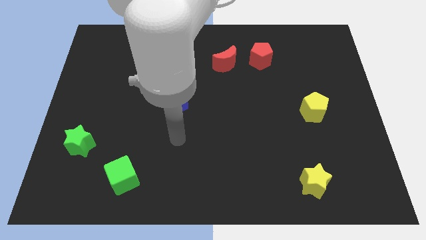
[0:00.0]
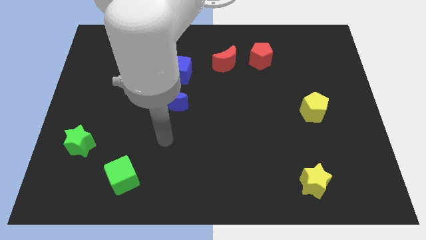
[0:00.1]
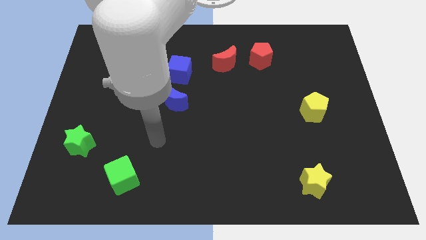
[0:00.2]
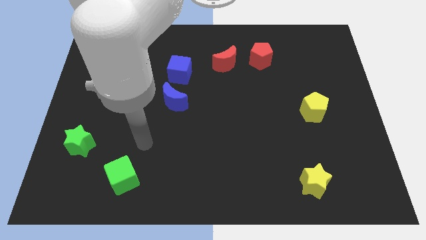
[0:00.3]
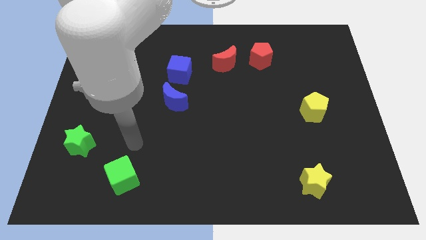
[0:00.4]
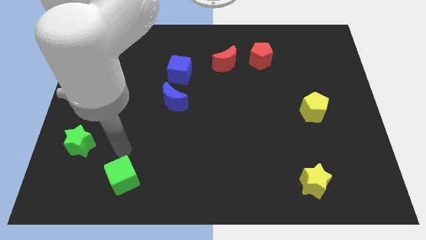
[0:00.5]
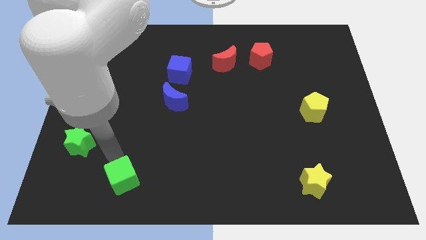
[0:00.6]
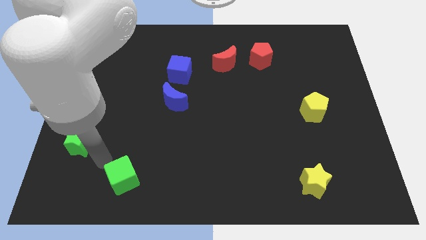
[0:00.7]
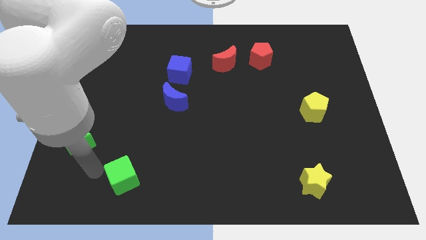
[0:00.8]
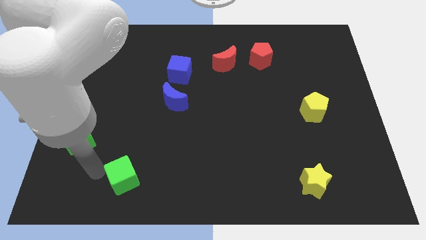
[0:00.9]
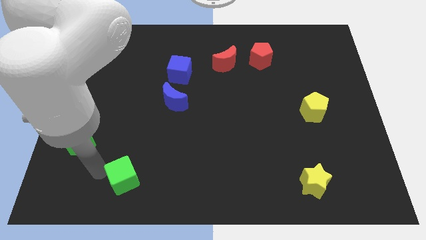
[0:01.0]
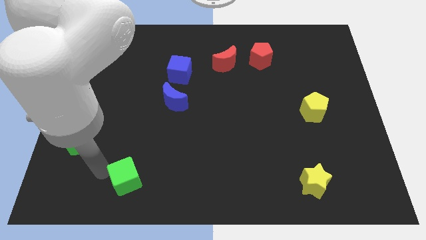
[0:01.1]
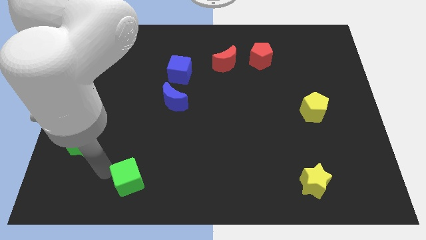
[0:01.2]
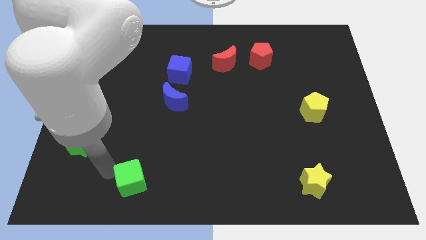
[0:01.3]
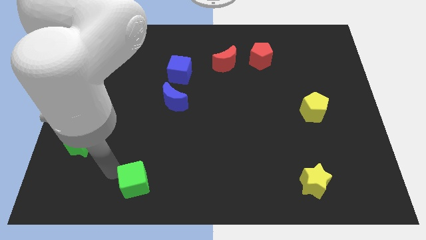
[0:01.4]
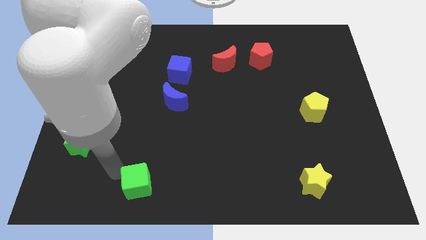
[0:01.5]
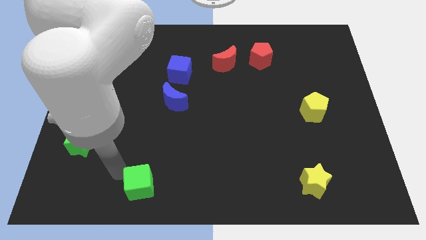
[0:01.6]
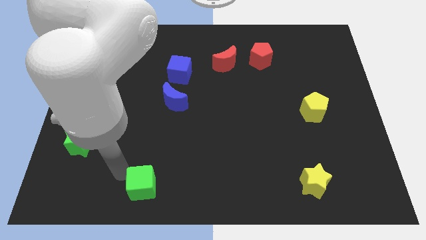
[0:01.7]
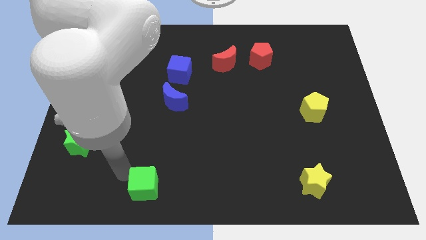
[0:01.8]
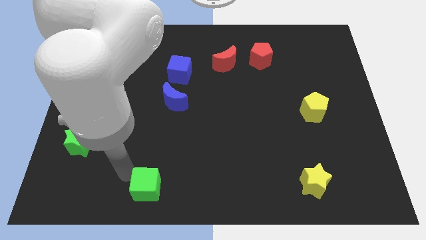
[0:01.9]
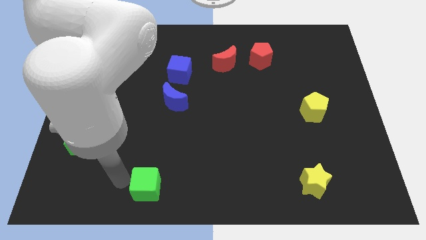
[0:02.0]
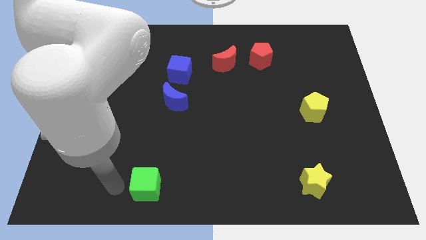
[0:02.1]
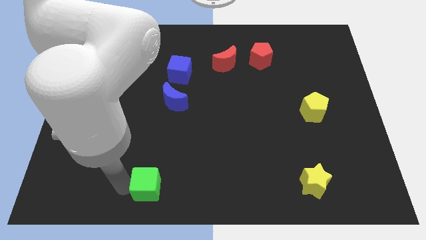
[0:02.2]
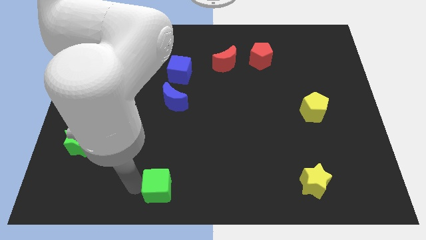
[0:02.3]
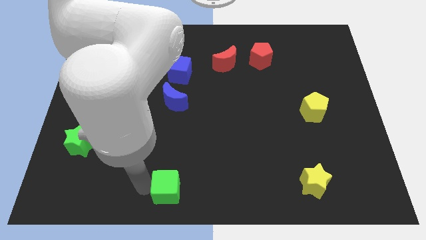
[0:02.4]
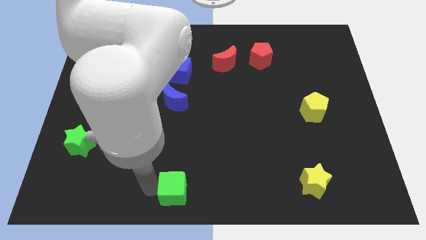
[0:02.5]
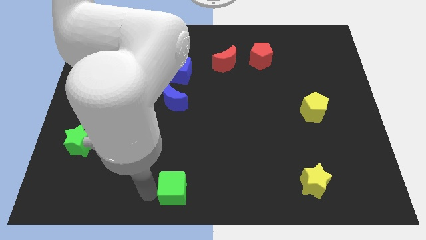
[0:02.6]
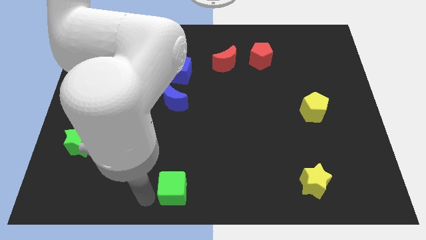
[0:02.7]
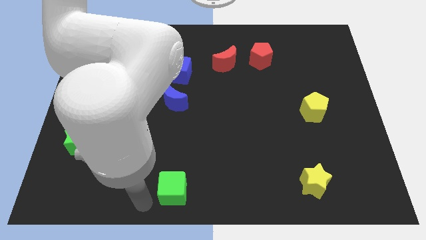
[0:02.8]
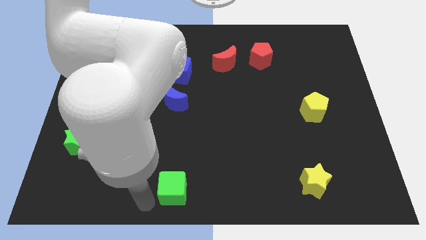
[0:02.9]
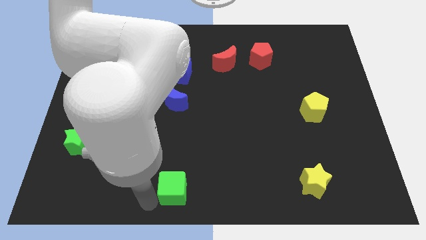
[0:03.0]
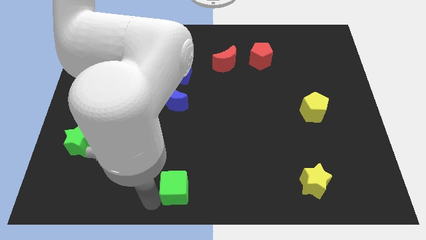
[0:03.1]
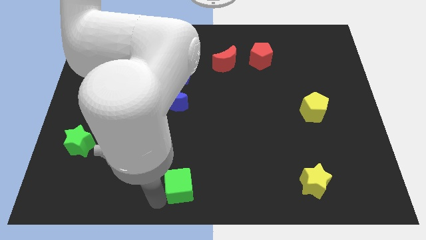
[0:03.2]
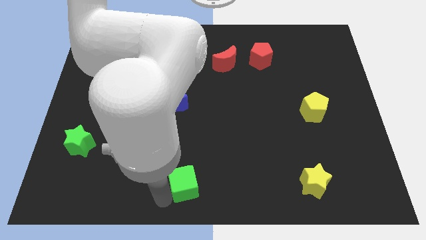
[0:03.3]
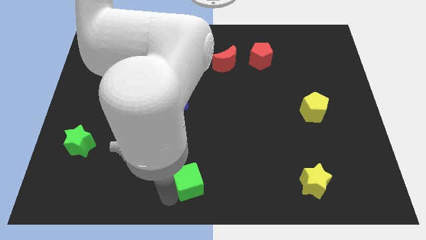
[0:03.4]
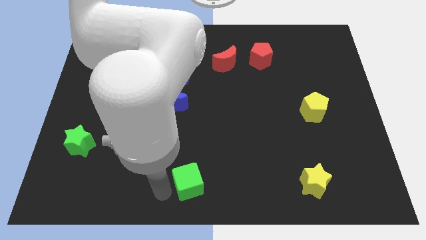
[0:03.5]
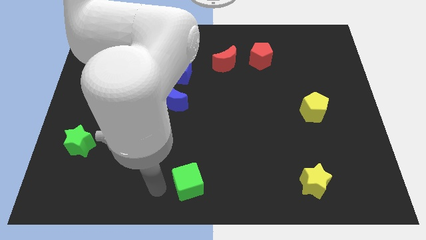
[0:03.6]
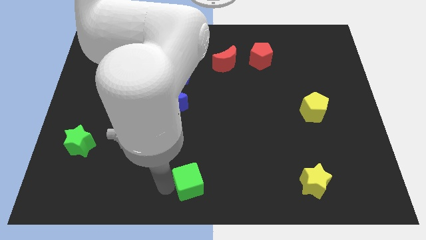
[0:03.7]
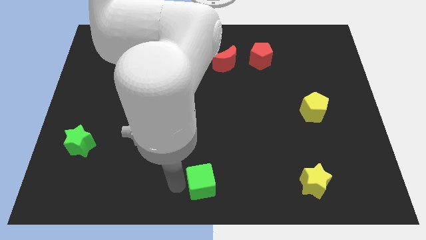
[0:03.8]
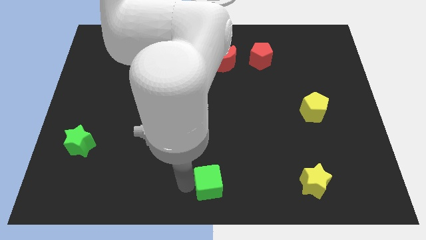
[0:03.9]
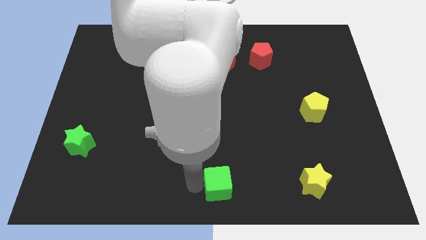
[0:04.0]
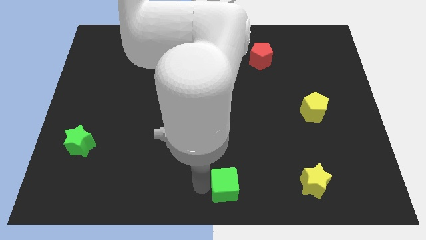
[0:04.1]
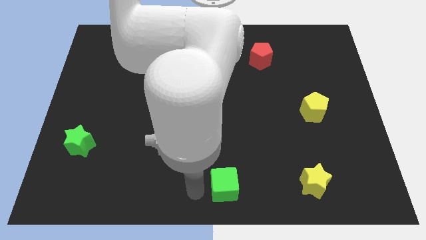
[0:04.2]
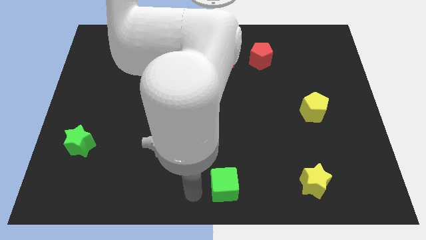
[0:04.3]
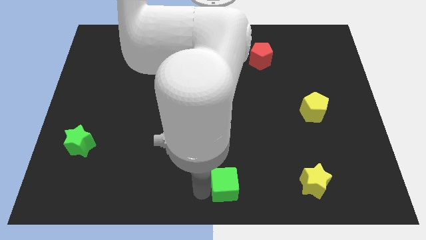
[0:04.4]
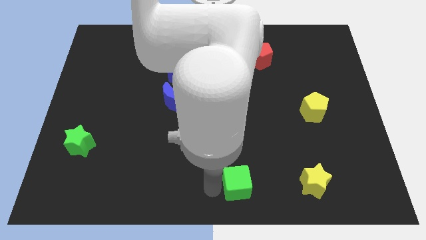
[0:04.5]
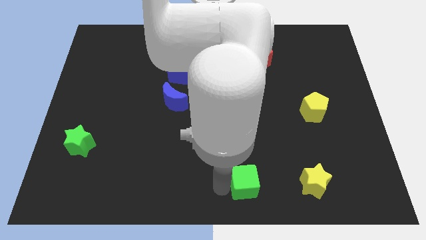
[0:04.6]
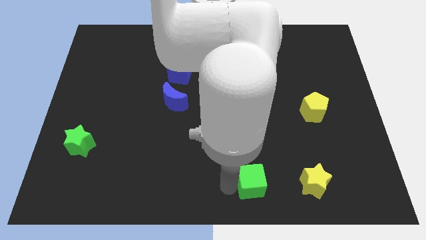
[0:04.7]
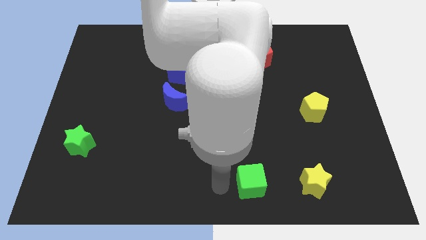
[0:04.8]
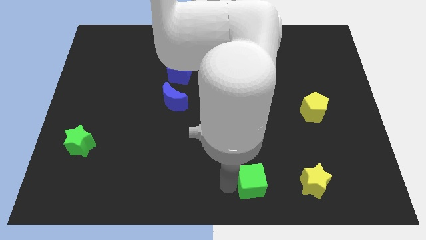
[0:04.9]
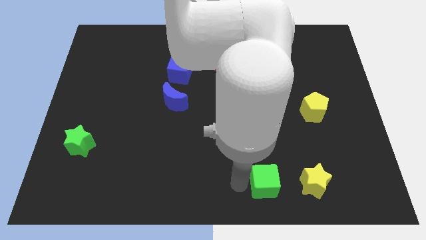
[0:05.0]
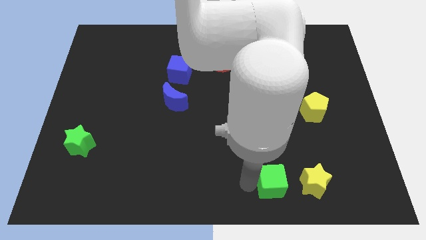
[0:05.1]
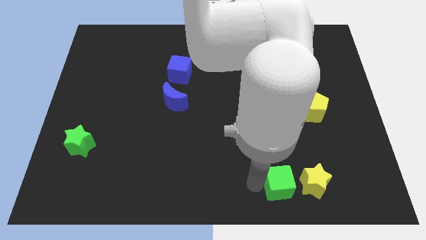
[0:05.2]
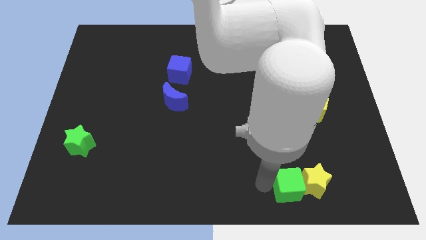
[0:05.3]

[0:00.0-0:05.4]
move the green cube close to the yellow star

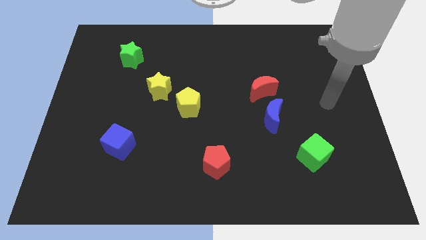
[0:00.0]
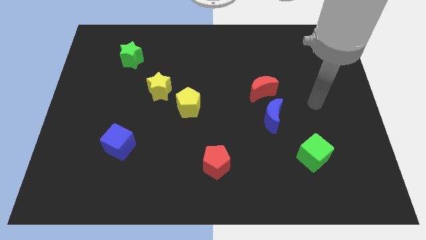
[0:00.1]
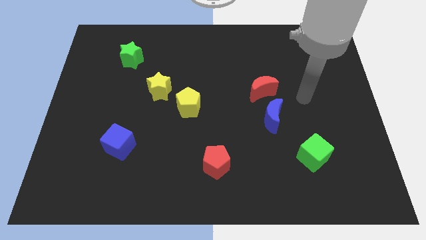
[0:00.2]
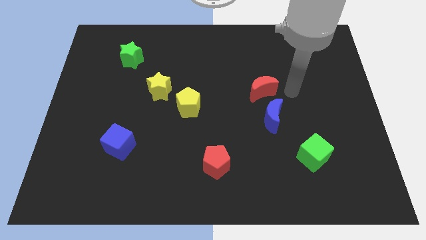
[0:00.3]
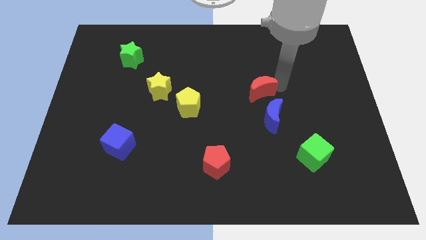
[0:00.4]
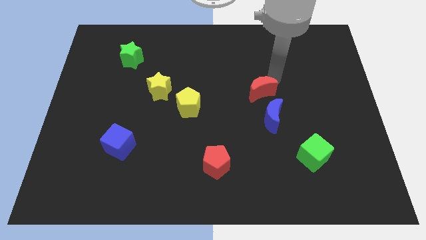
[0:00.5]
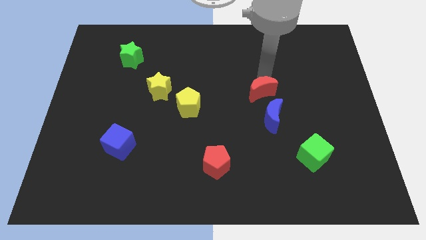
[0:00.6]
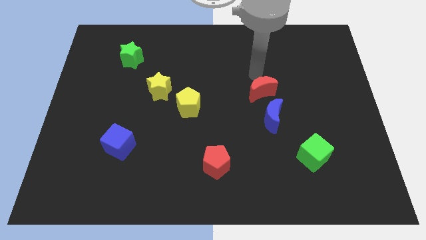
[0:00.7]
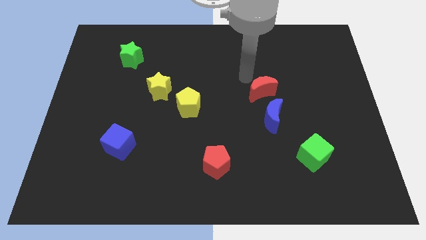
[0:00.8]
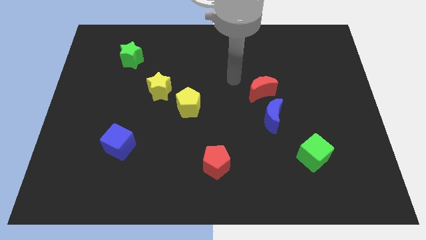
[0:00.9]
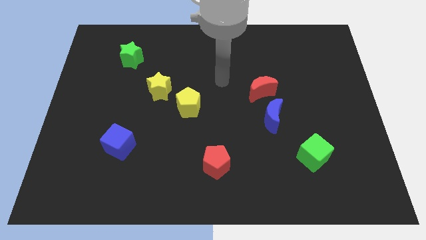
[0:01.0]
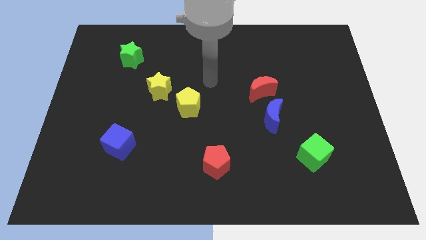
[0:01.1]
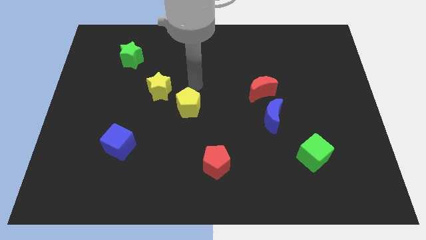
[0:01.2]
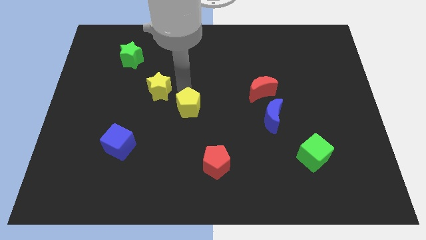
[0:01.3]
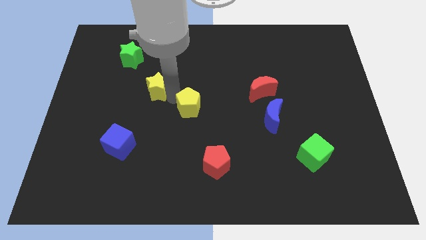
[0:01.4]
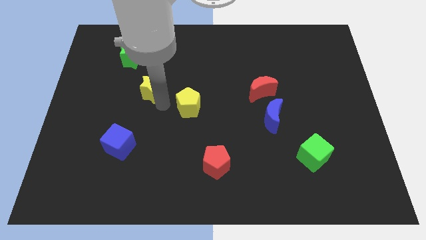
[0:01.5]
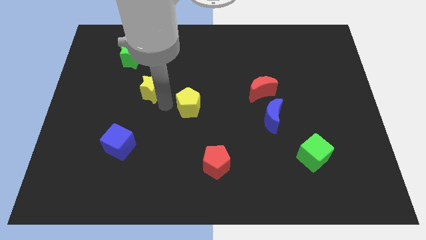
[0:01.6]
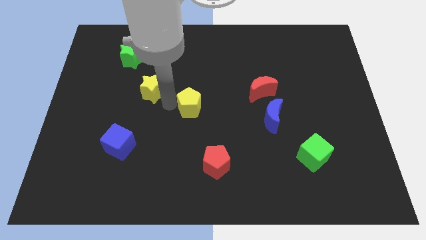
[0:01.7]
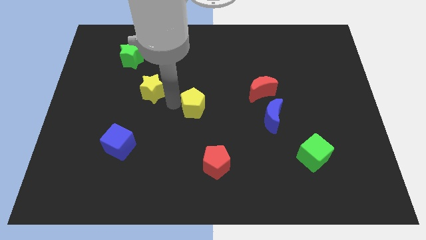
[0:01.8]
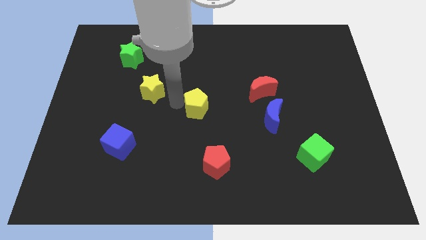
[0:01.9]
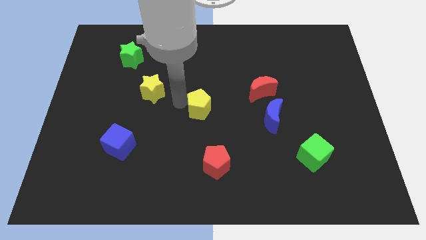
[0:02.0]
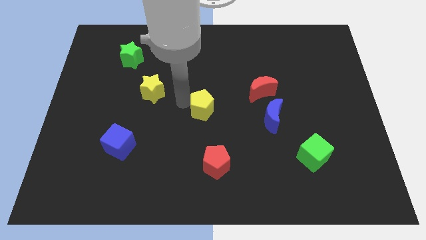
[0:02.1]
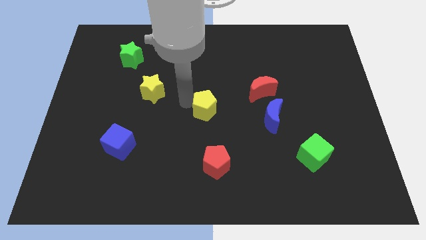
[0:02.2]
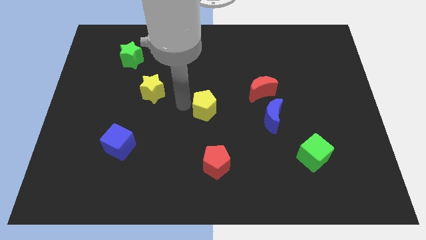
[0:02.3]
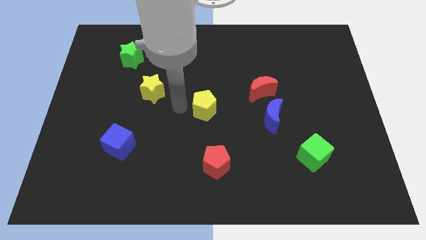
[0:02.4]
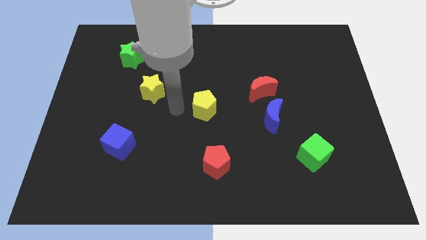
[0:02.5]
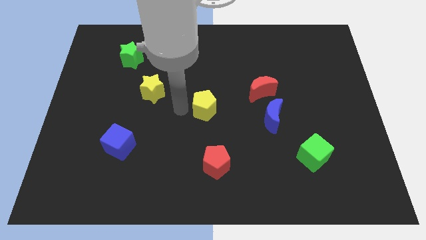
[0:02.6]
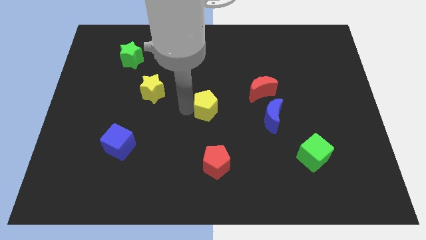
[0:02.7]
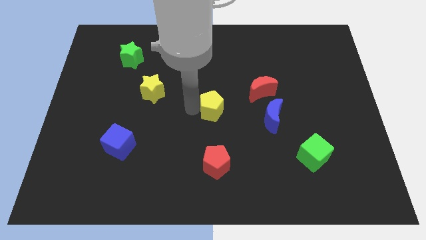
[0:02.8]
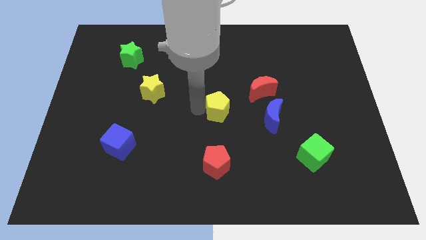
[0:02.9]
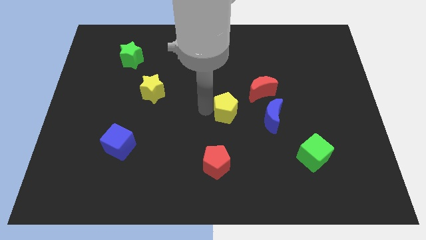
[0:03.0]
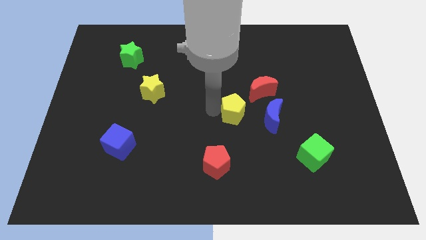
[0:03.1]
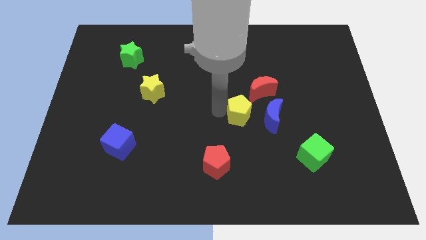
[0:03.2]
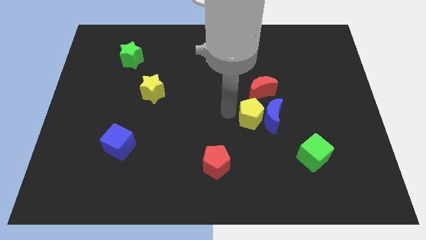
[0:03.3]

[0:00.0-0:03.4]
put the yellow pentagon next to the blue moon
